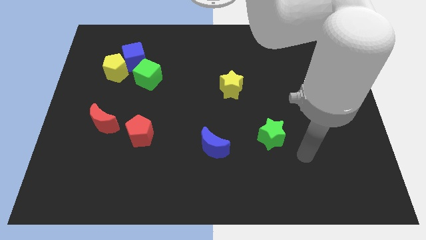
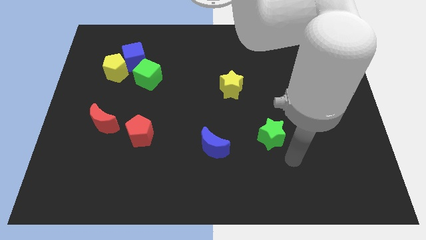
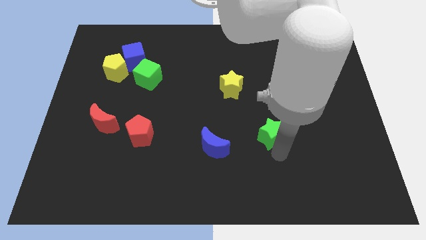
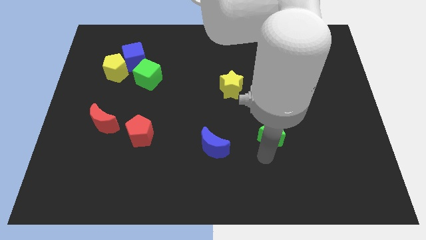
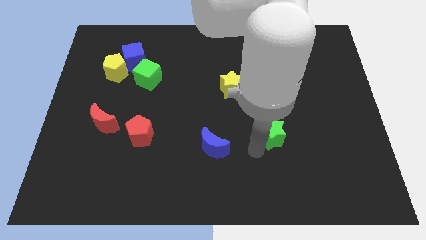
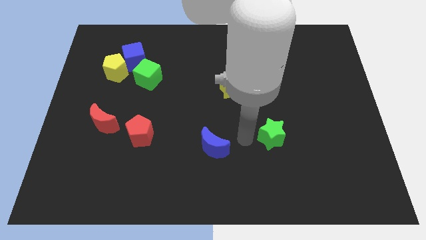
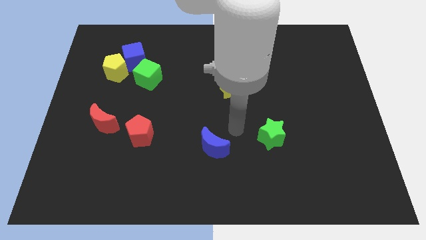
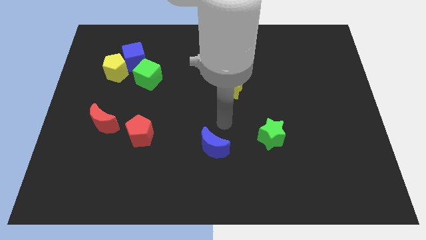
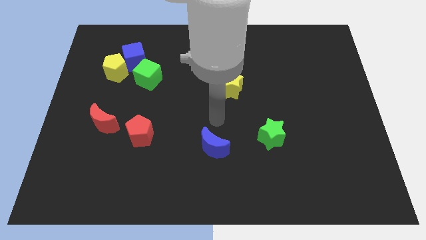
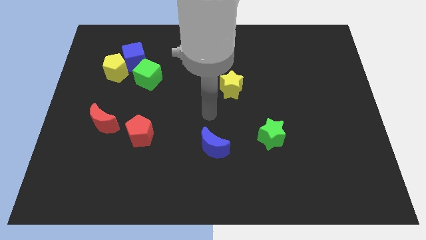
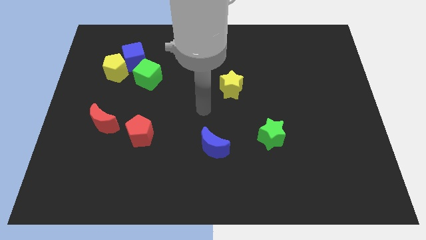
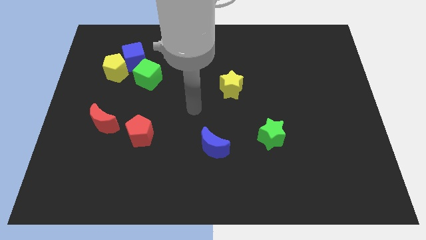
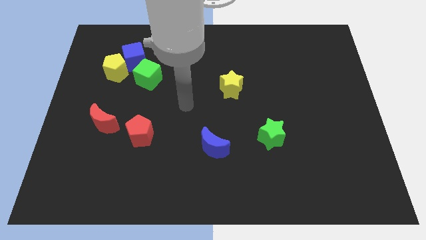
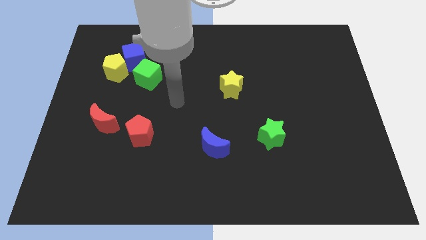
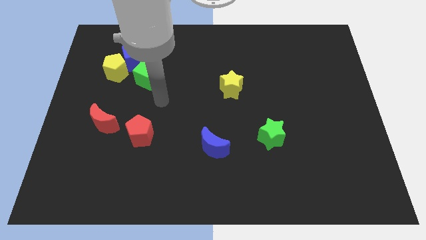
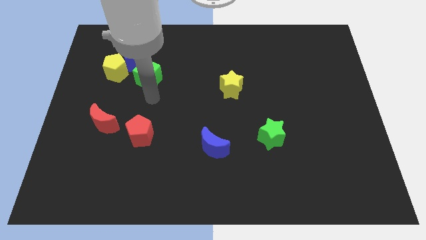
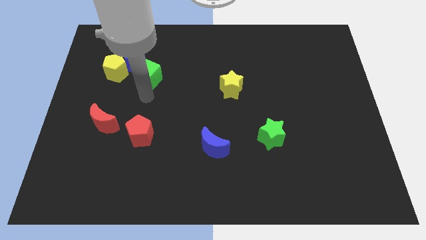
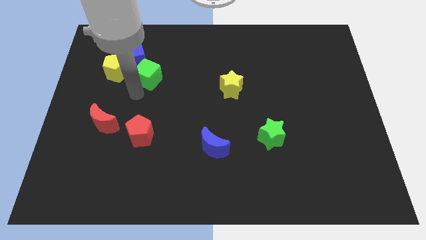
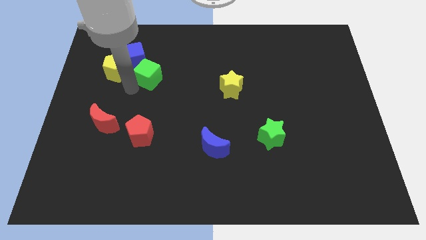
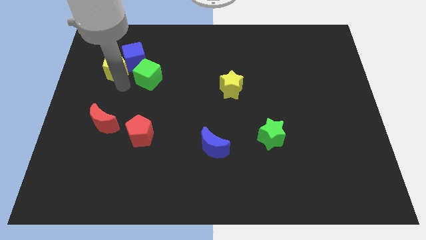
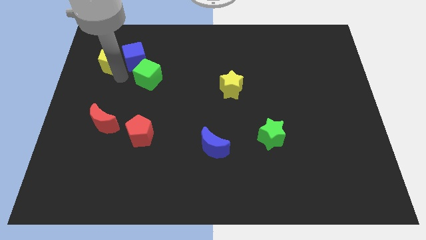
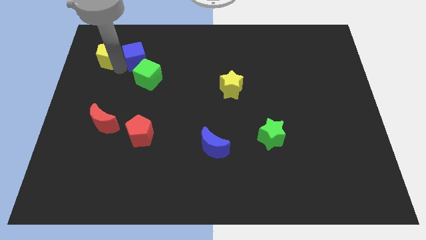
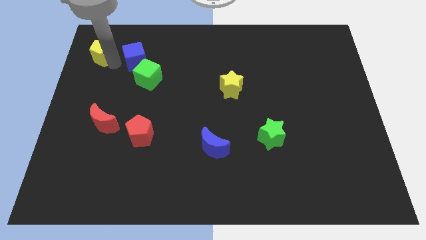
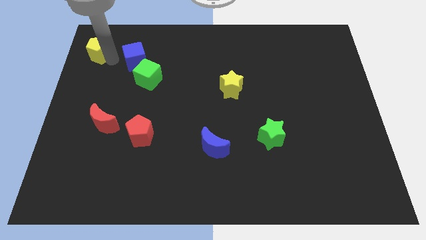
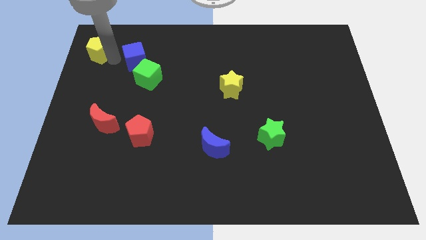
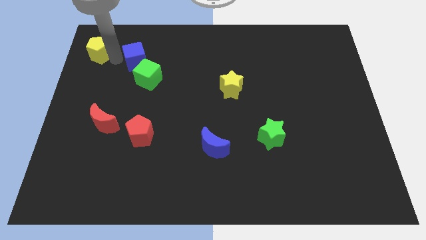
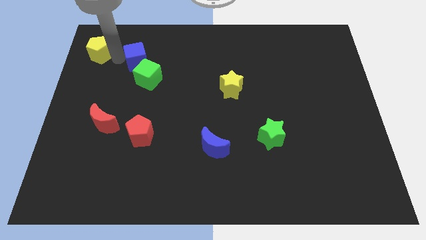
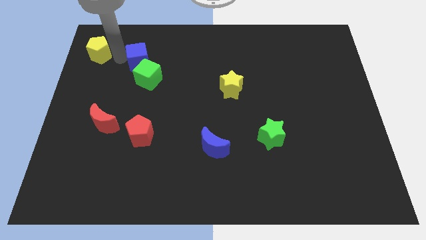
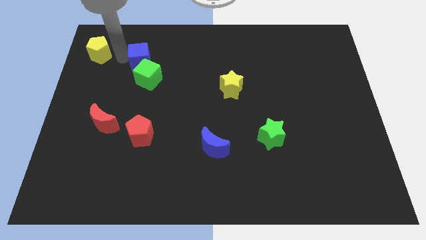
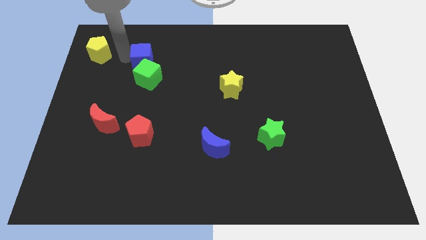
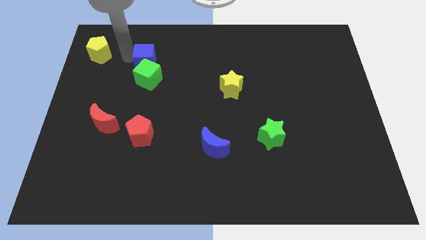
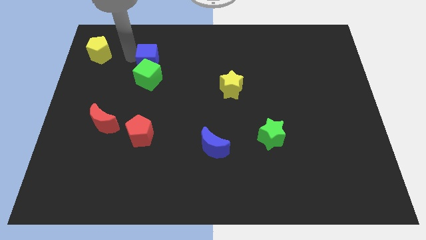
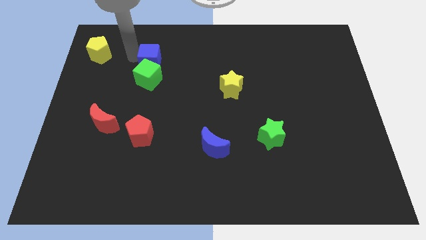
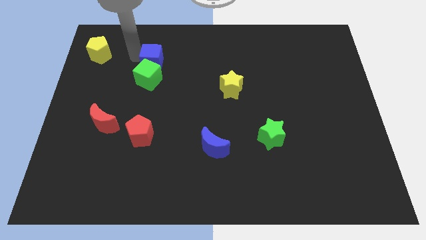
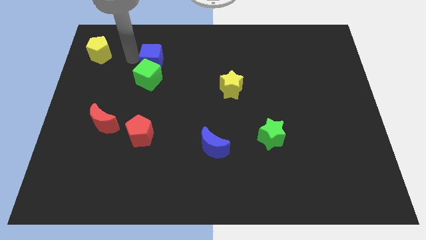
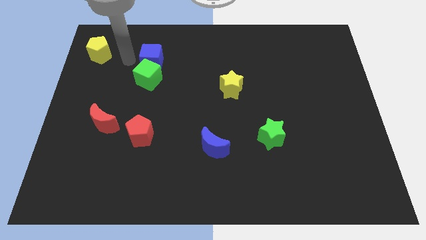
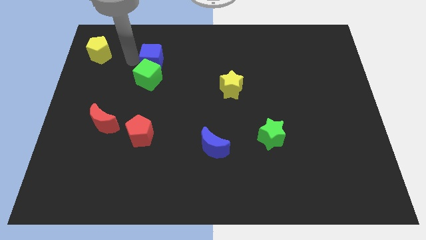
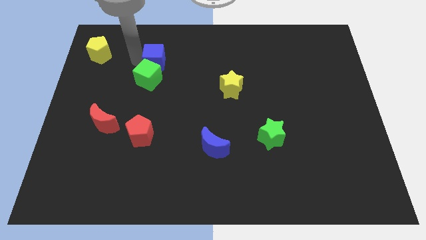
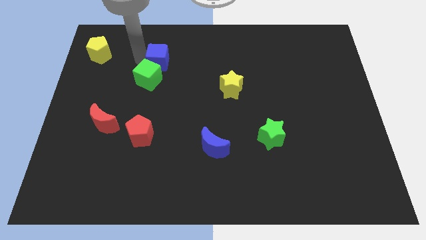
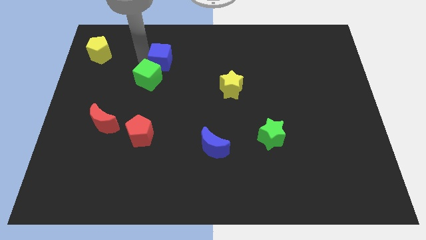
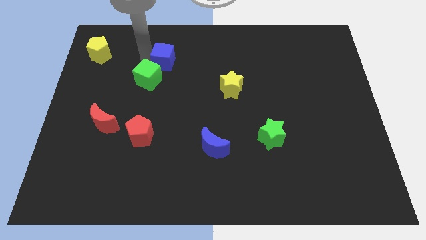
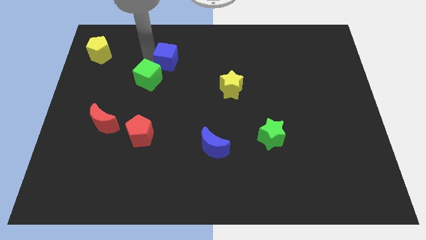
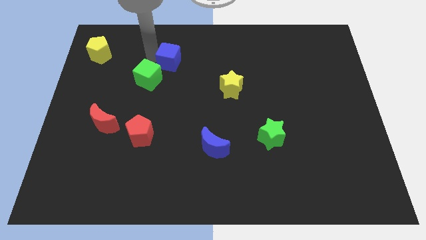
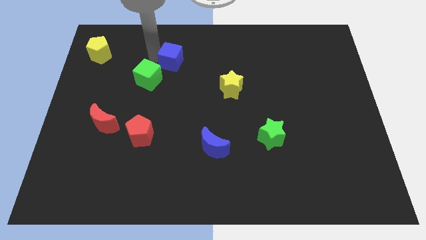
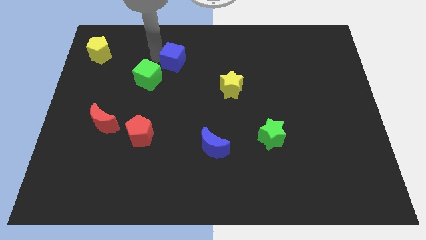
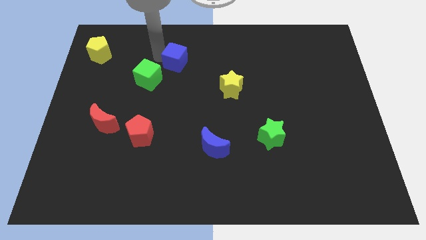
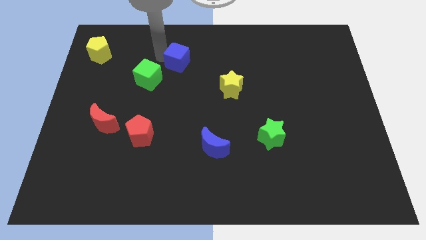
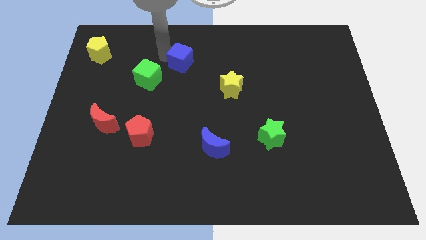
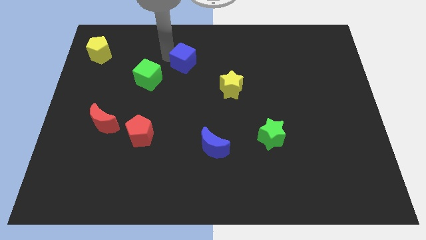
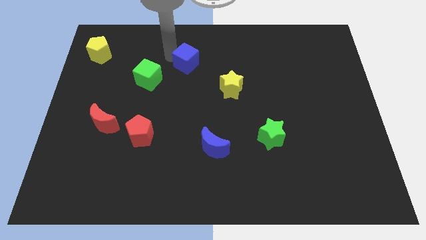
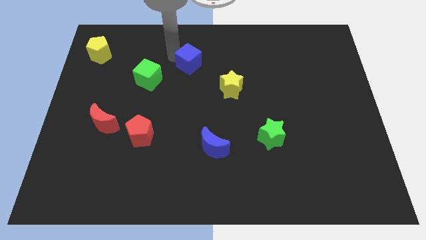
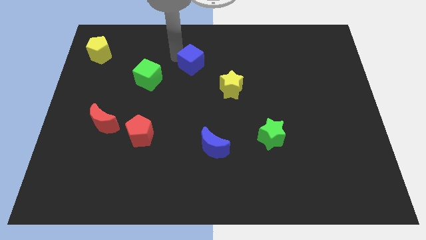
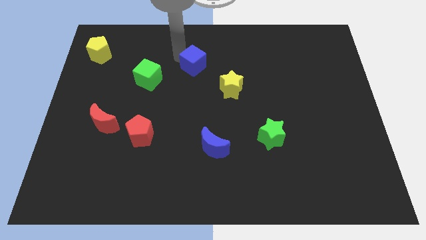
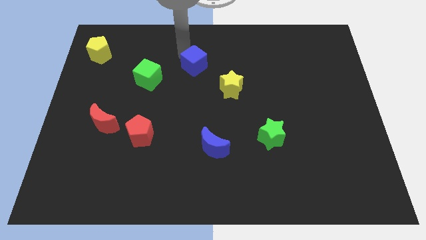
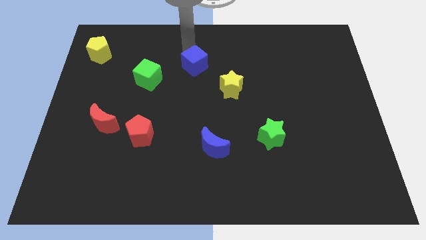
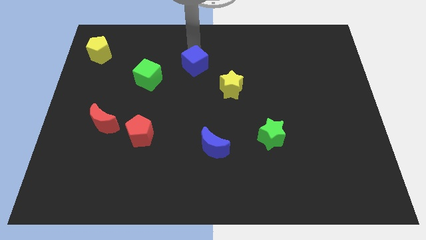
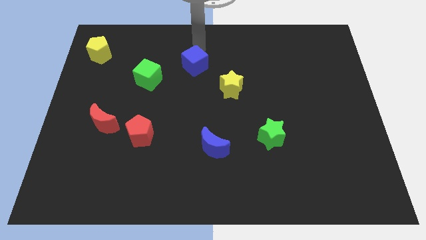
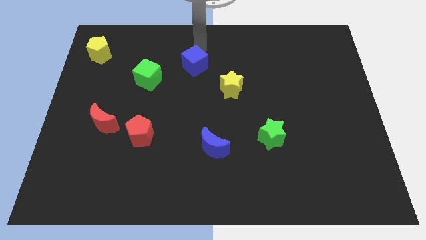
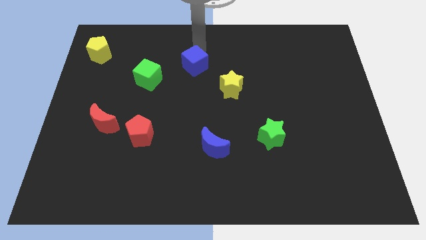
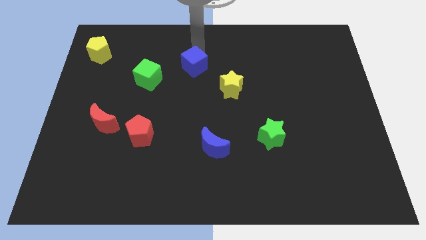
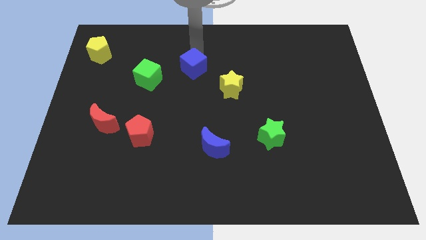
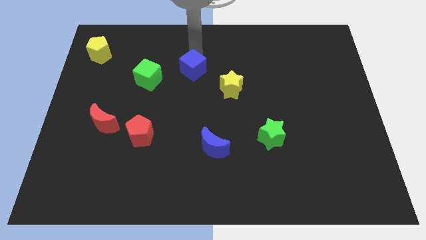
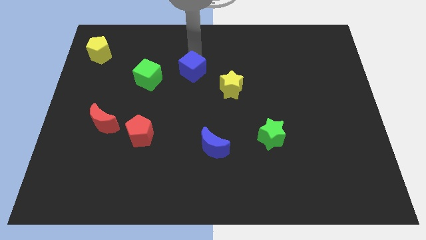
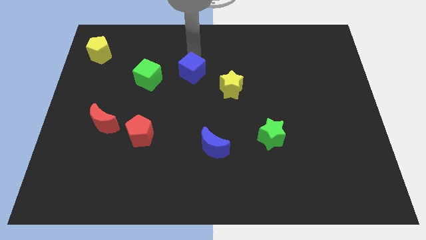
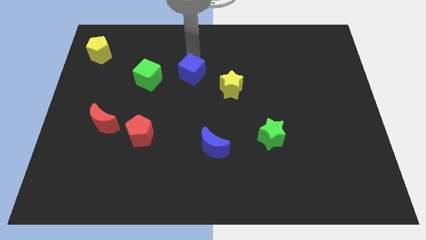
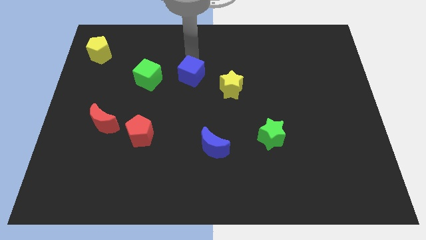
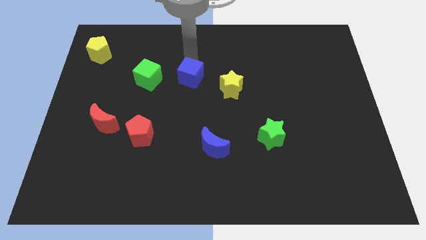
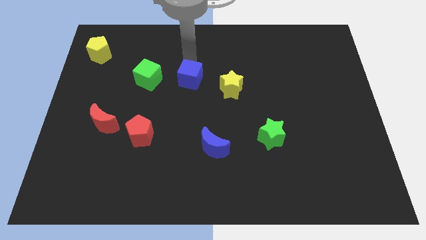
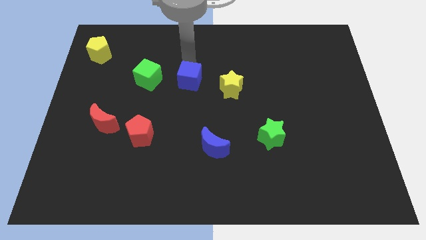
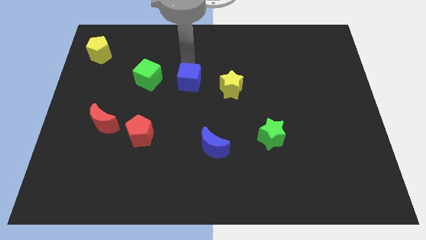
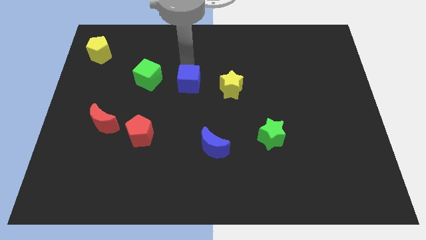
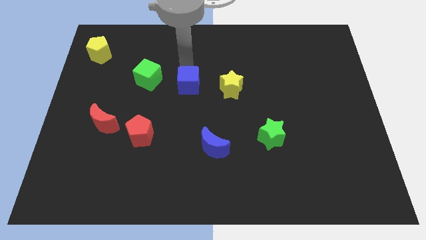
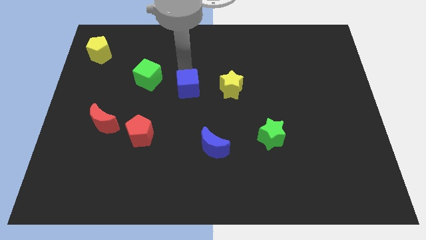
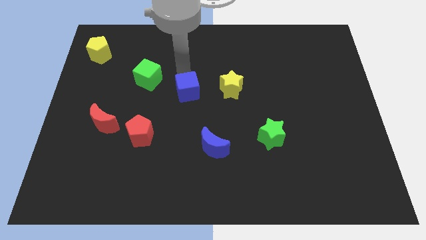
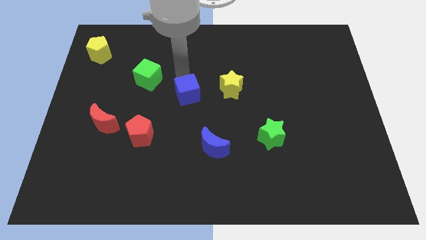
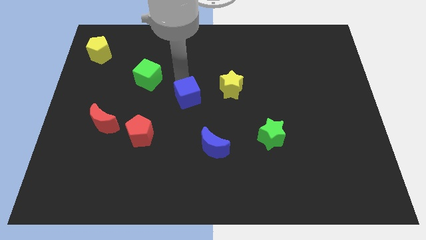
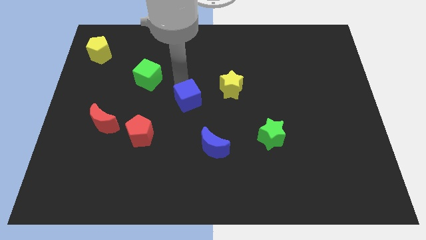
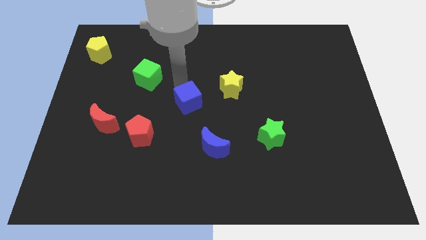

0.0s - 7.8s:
slide the blue cube down and then right

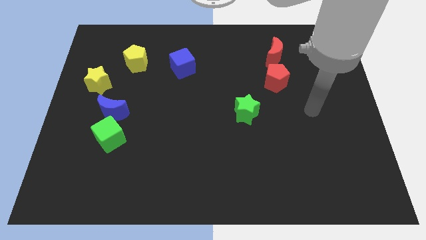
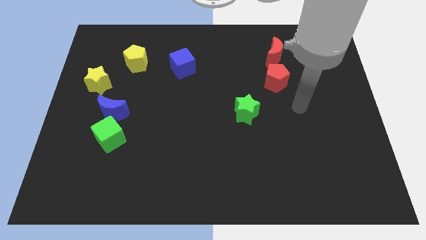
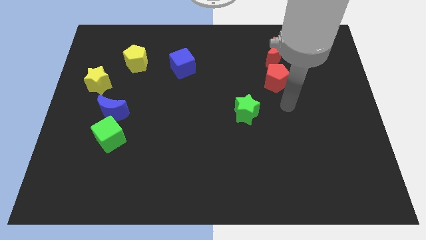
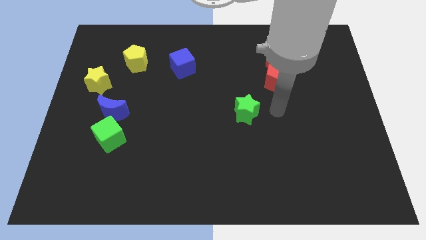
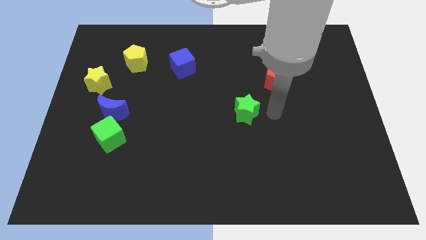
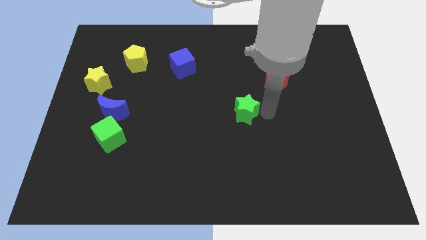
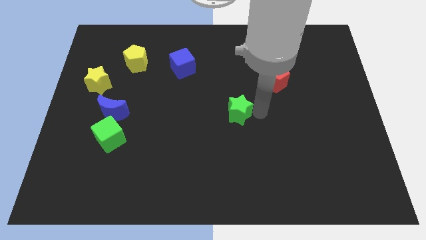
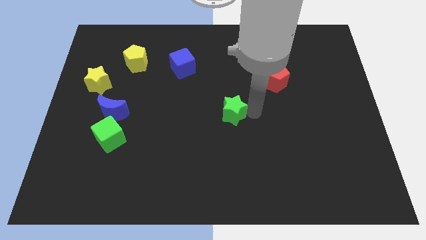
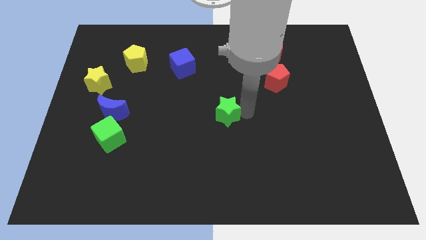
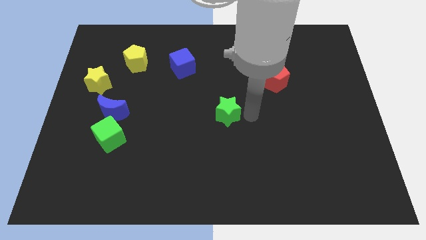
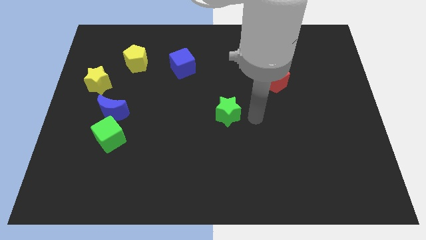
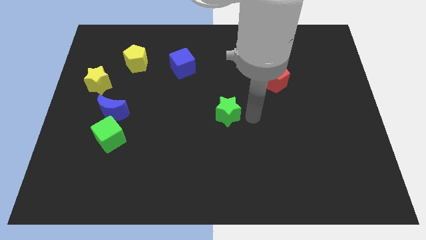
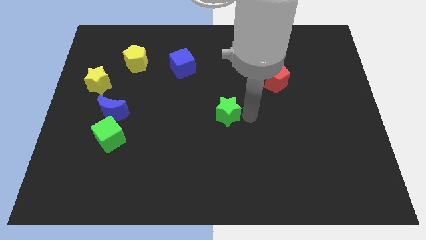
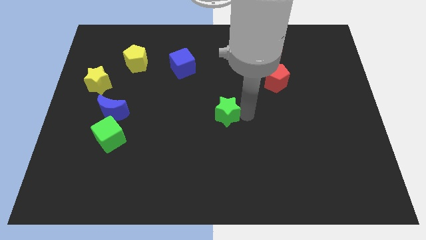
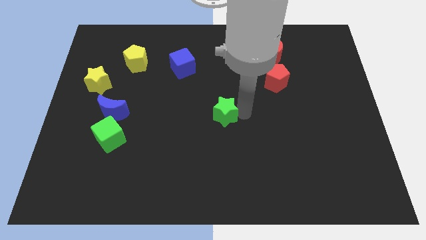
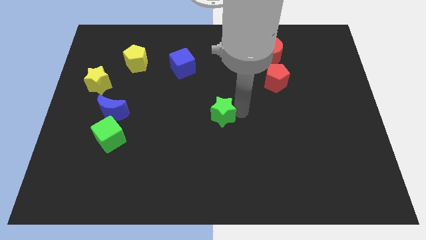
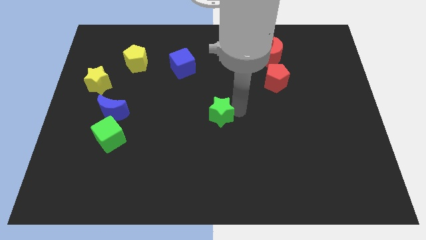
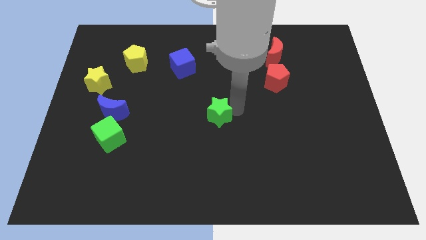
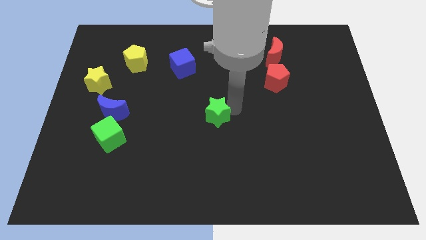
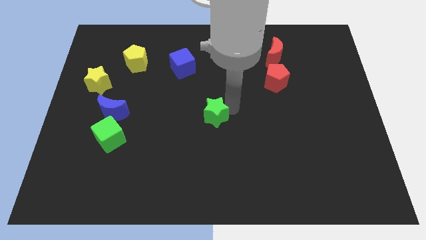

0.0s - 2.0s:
slightly push the green star to the left
